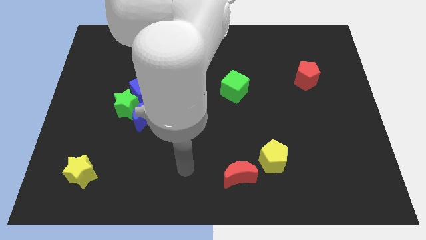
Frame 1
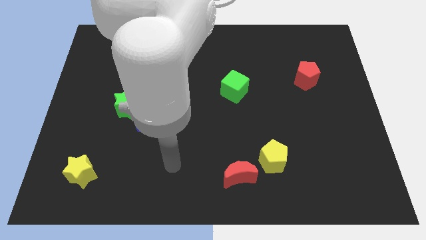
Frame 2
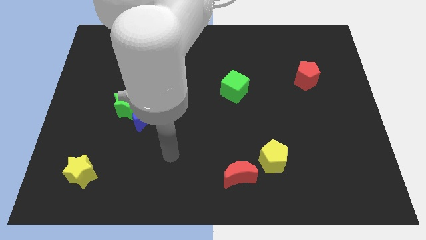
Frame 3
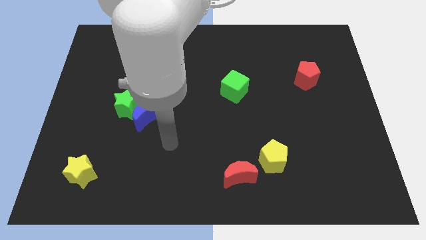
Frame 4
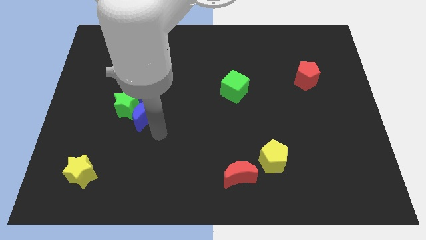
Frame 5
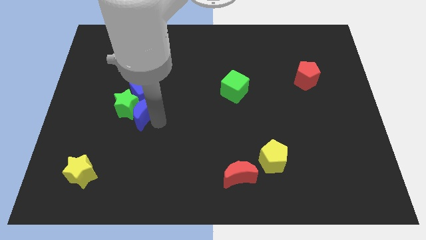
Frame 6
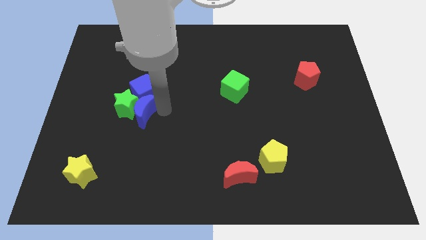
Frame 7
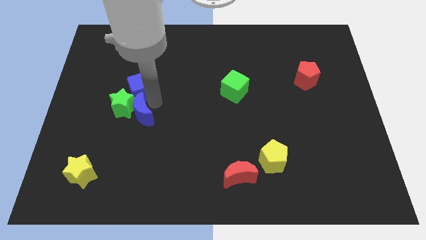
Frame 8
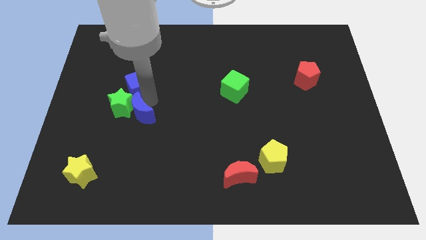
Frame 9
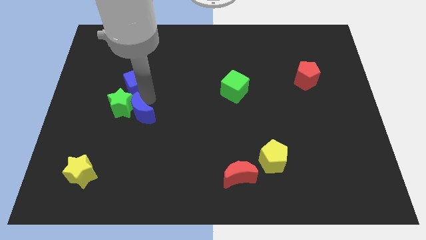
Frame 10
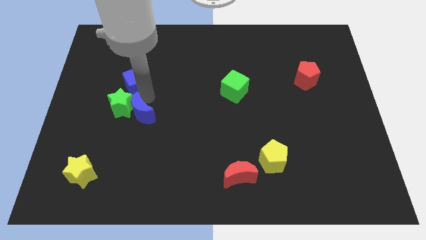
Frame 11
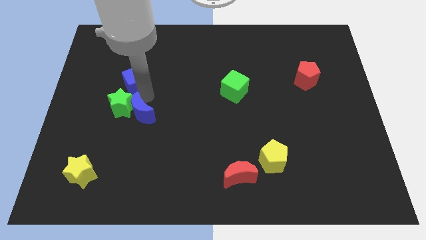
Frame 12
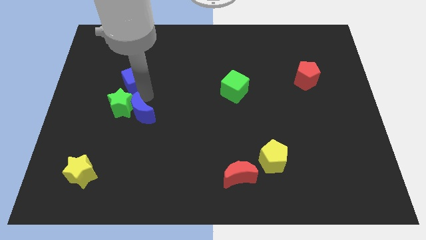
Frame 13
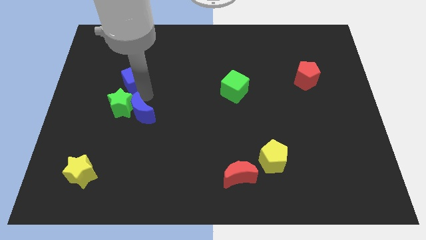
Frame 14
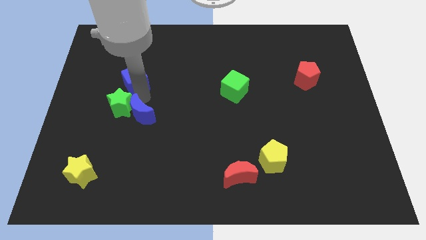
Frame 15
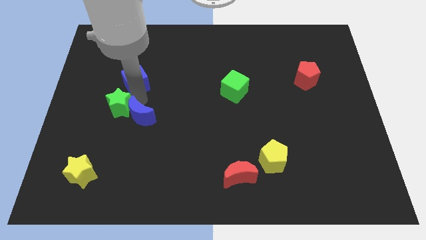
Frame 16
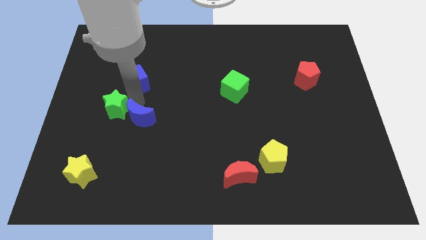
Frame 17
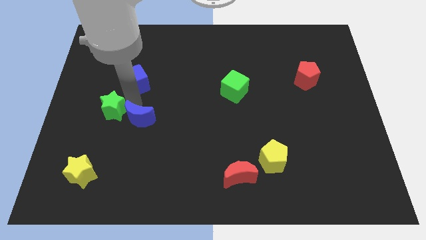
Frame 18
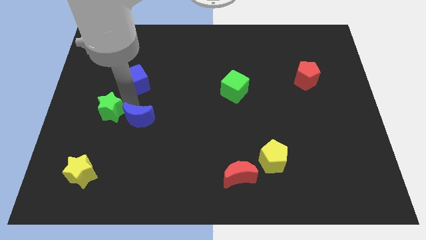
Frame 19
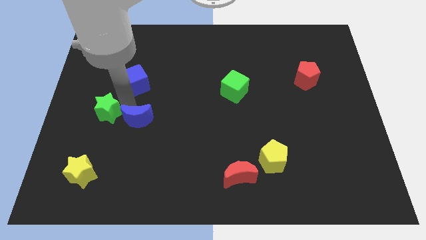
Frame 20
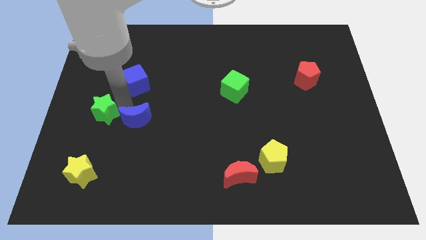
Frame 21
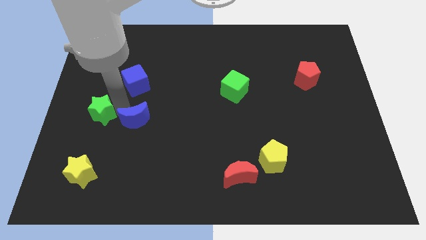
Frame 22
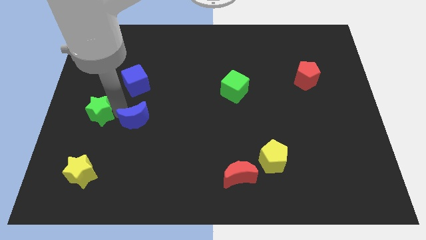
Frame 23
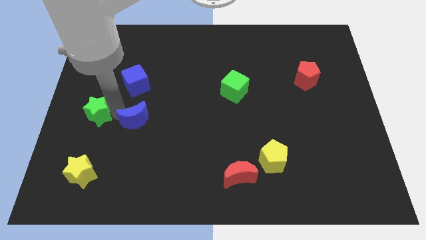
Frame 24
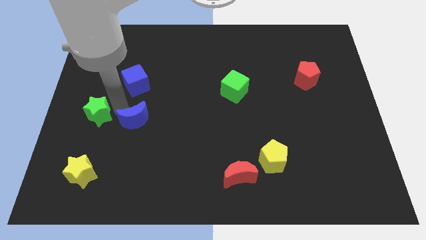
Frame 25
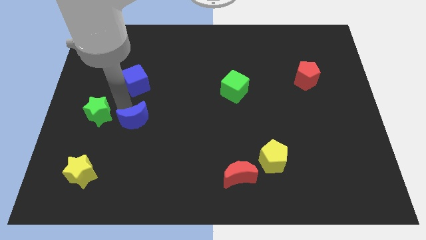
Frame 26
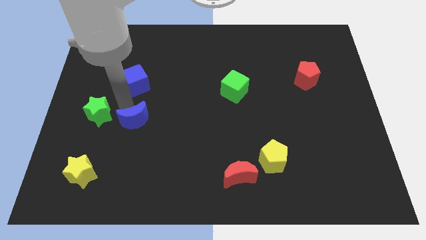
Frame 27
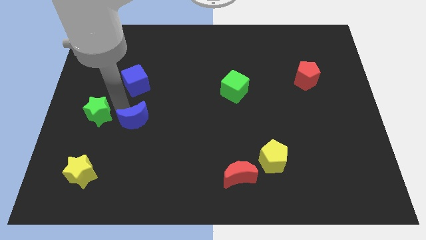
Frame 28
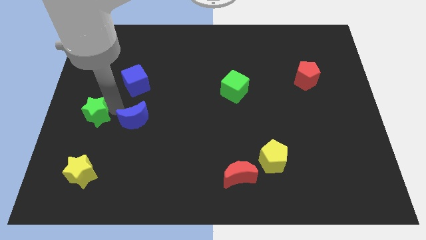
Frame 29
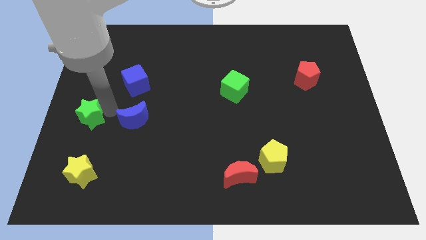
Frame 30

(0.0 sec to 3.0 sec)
separate the green star from the blue moon and blue cube

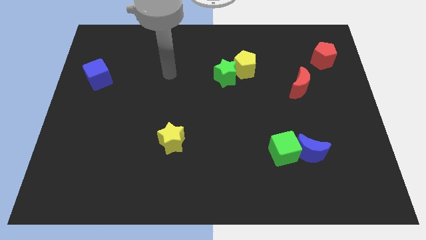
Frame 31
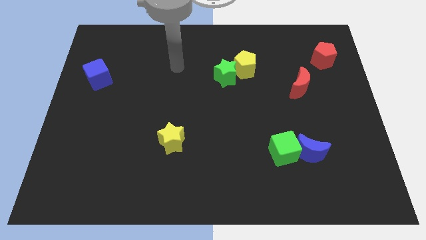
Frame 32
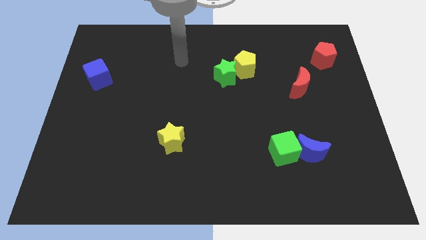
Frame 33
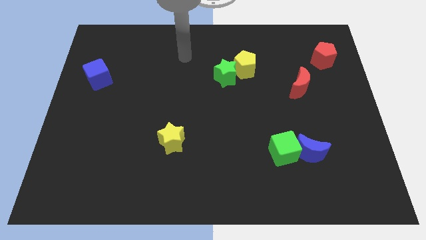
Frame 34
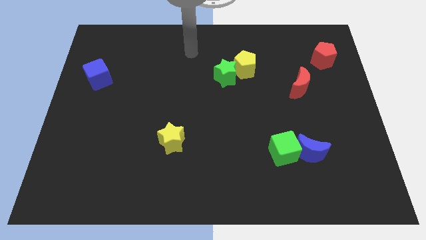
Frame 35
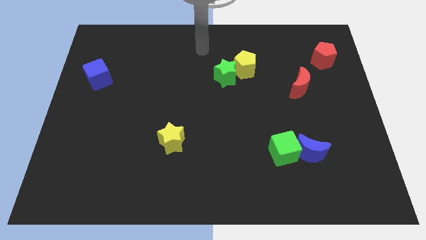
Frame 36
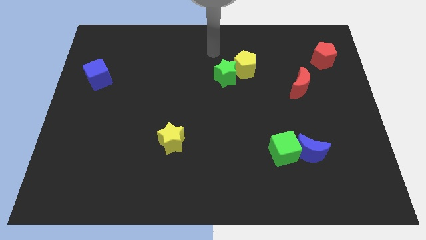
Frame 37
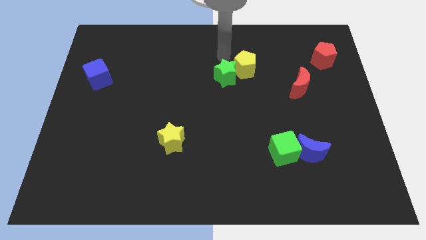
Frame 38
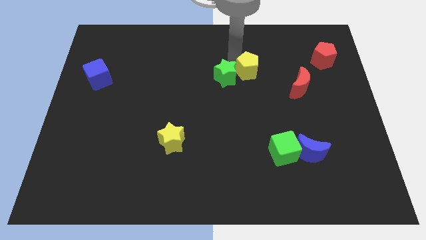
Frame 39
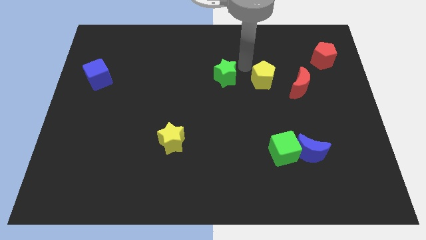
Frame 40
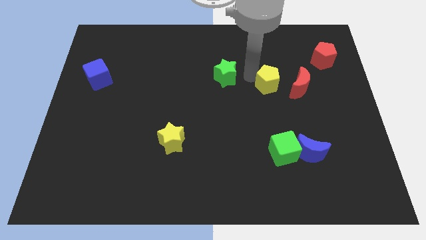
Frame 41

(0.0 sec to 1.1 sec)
pull the green star apart from the yellow pentagon

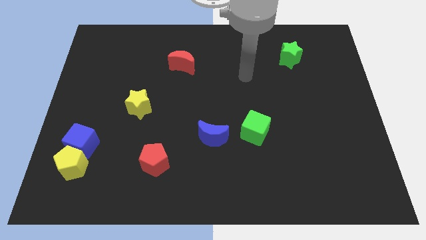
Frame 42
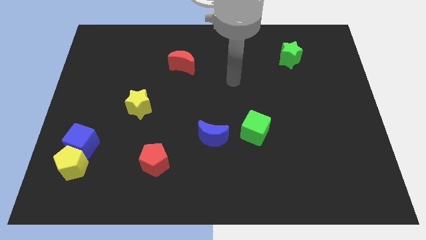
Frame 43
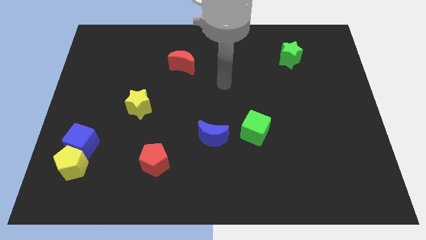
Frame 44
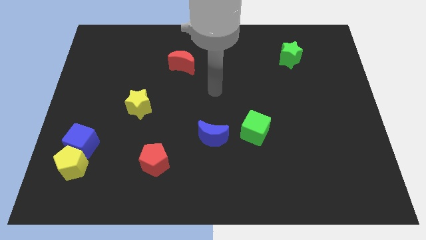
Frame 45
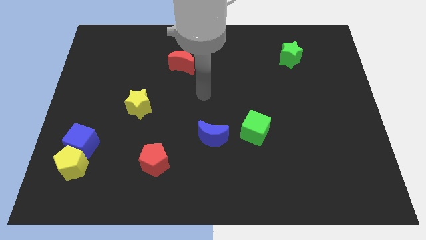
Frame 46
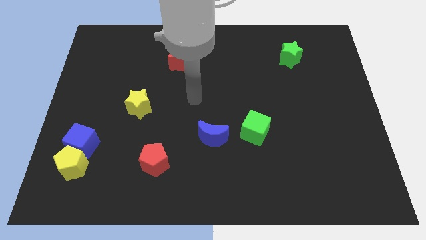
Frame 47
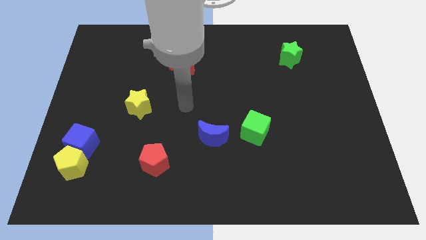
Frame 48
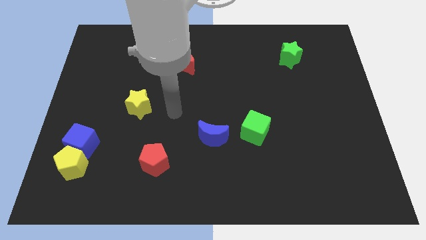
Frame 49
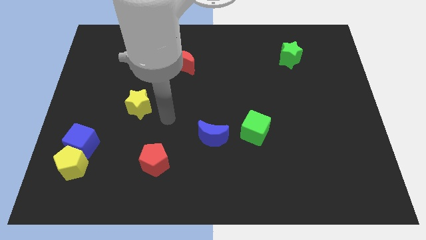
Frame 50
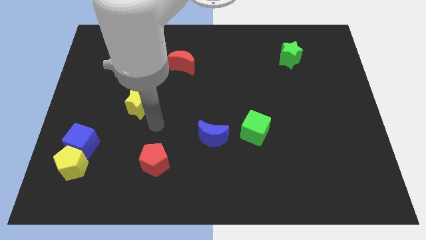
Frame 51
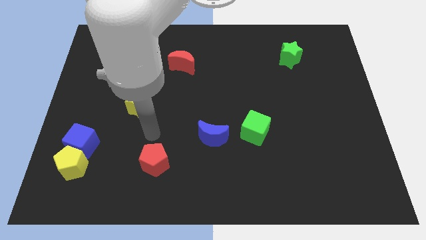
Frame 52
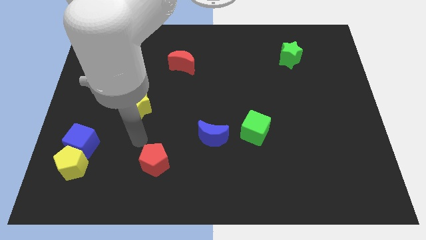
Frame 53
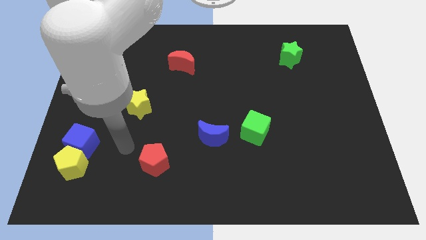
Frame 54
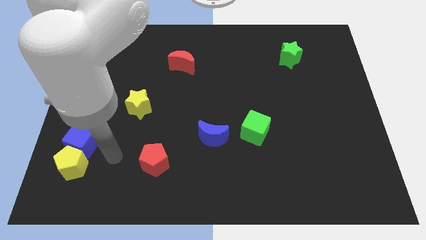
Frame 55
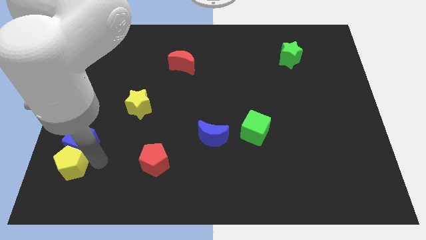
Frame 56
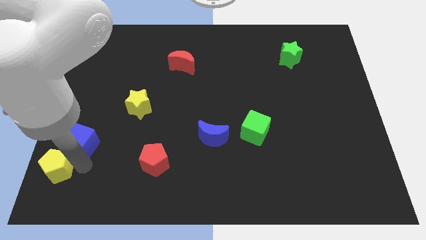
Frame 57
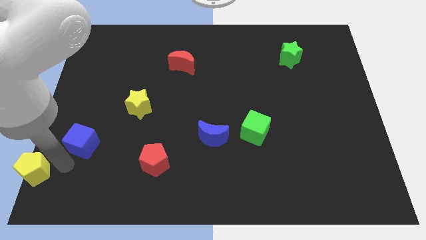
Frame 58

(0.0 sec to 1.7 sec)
pull the blue cube apart from the yellow pentagon

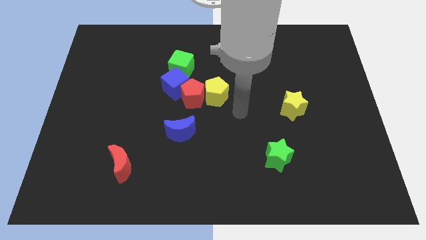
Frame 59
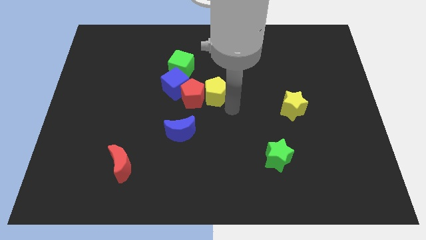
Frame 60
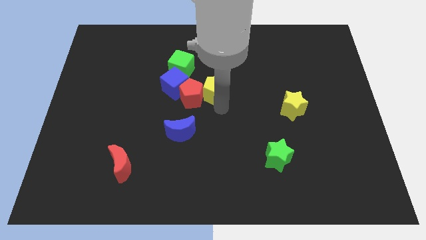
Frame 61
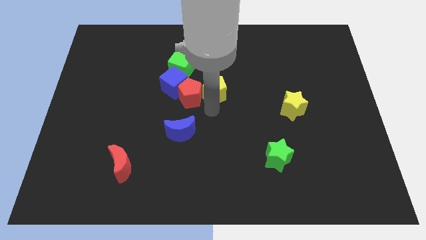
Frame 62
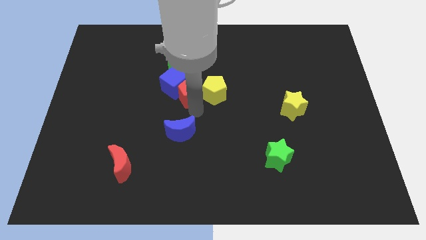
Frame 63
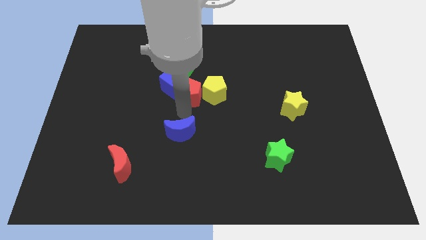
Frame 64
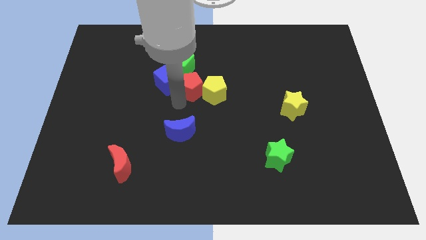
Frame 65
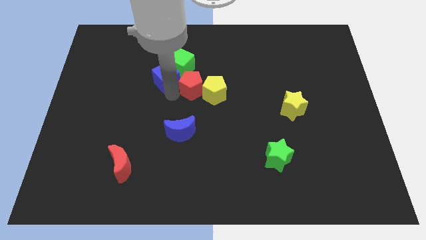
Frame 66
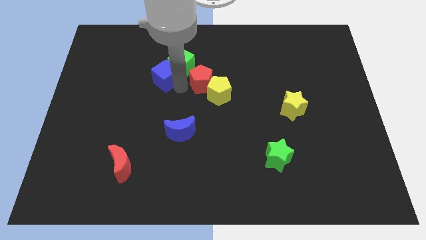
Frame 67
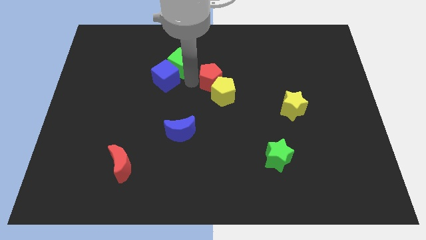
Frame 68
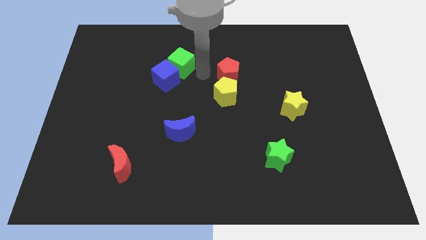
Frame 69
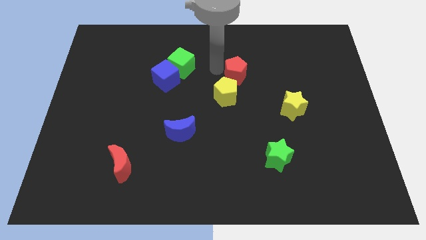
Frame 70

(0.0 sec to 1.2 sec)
move the red pentagon away from the clump

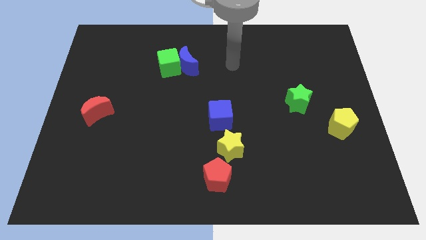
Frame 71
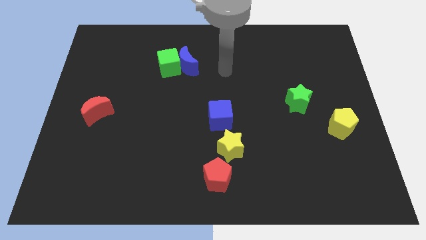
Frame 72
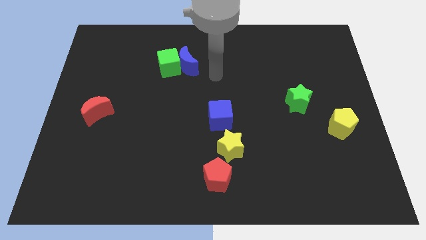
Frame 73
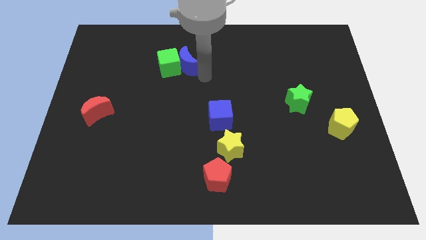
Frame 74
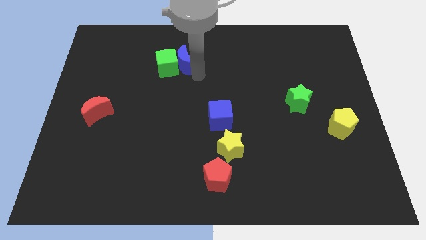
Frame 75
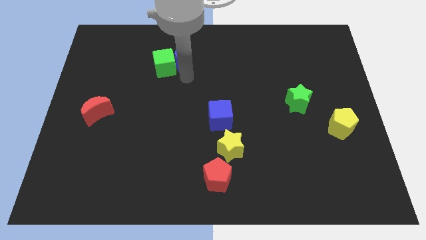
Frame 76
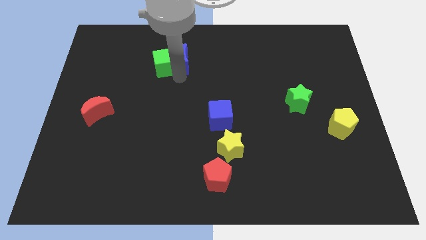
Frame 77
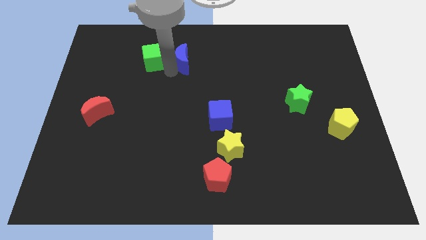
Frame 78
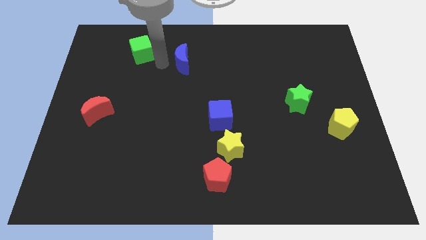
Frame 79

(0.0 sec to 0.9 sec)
separate the blue moon from the green cube

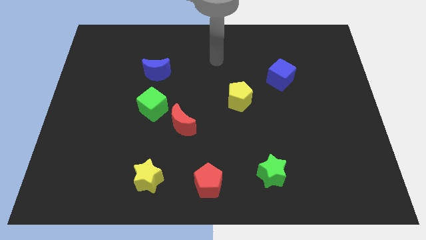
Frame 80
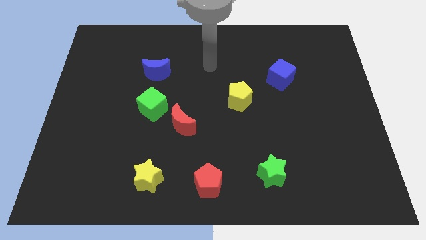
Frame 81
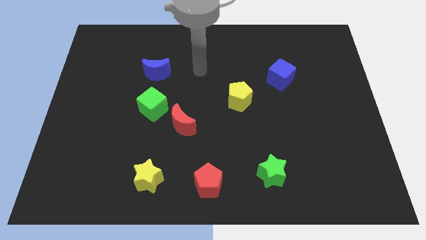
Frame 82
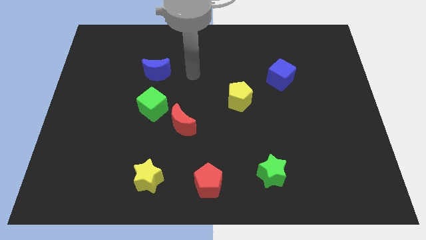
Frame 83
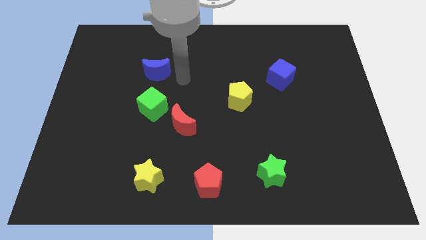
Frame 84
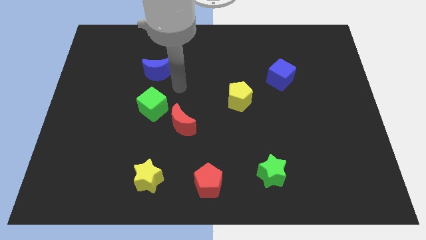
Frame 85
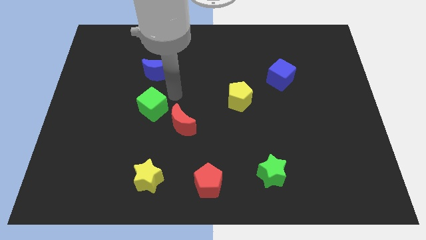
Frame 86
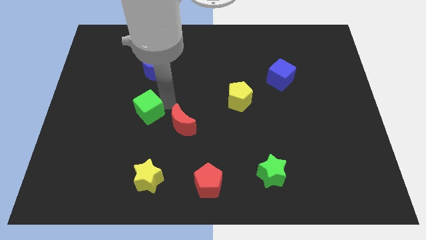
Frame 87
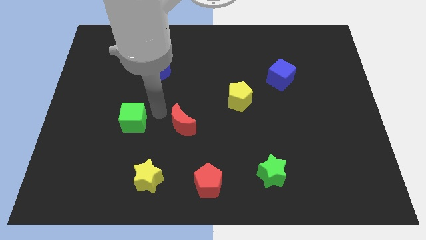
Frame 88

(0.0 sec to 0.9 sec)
pull the red moon apart from the green cube

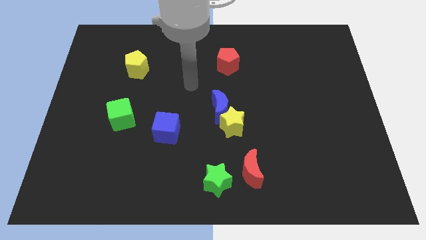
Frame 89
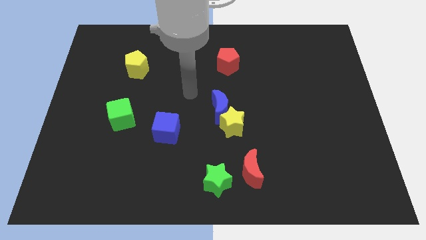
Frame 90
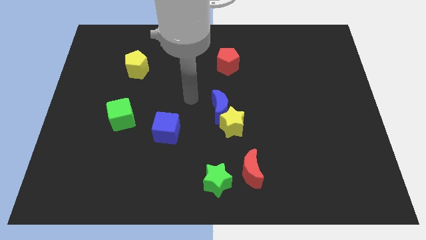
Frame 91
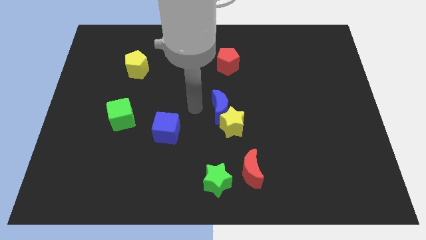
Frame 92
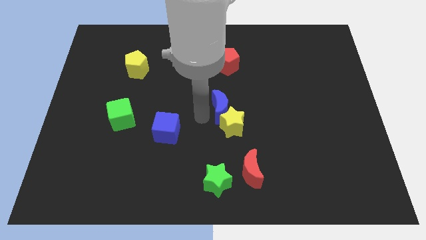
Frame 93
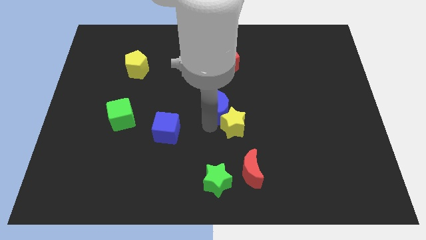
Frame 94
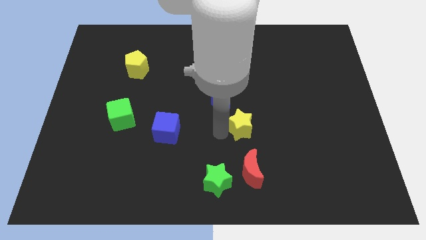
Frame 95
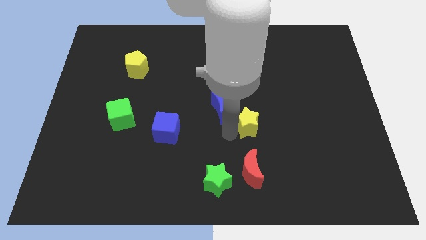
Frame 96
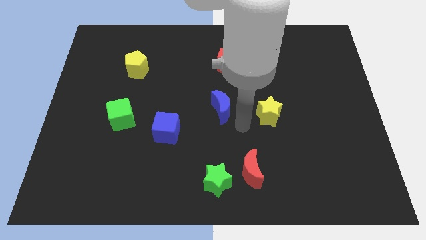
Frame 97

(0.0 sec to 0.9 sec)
move the blue moon away from the yellow star
